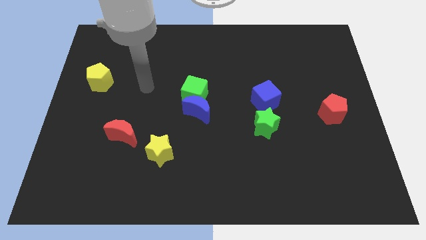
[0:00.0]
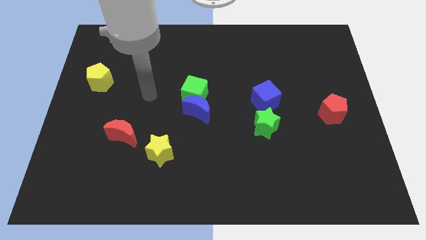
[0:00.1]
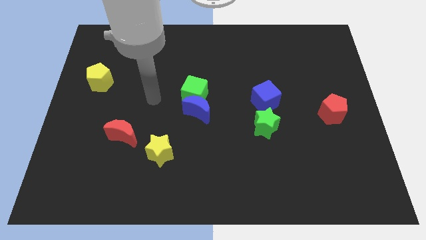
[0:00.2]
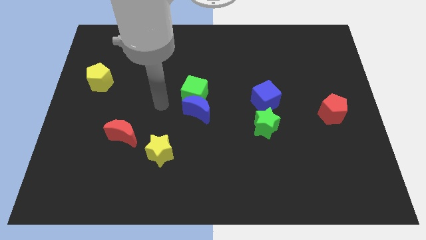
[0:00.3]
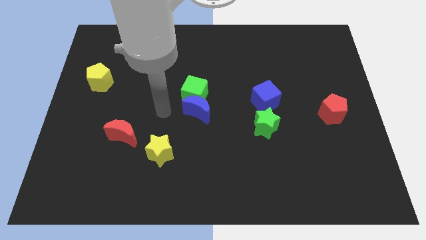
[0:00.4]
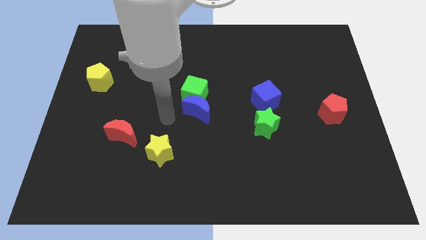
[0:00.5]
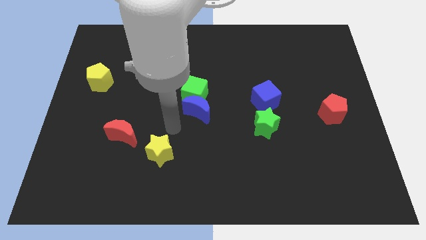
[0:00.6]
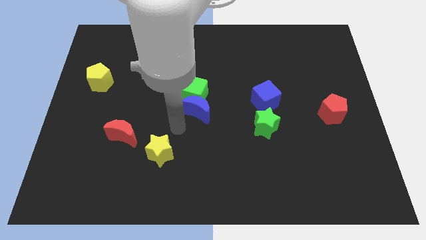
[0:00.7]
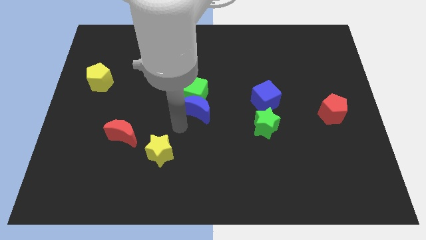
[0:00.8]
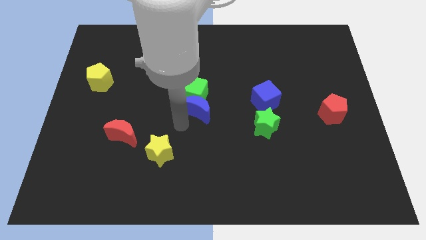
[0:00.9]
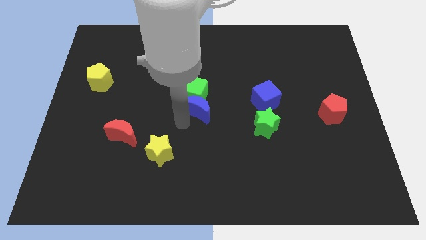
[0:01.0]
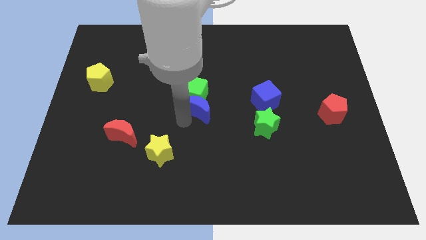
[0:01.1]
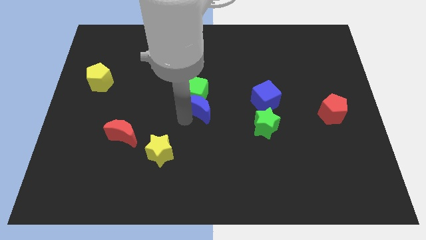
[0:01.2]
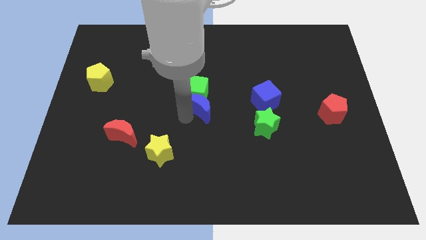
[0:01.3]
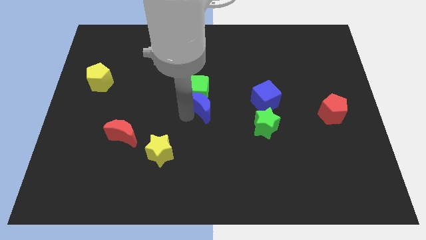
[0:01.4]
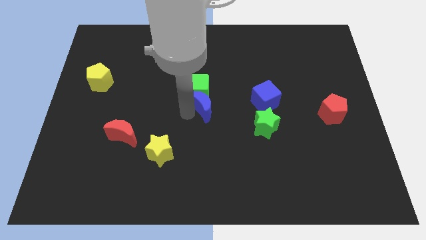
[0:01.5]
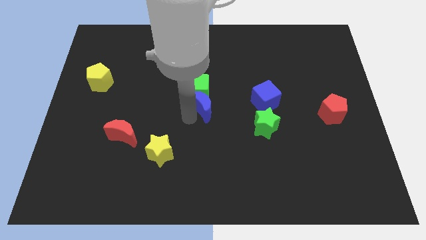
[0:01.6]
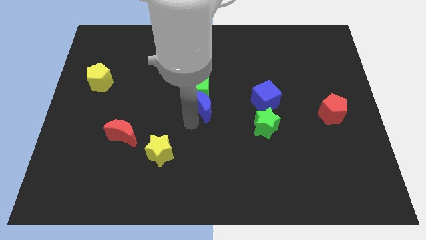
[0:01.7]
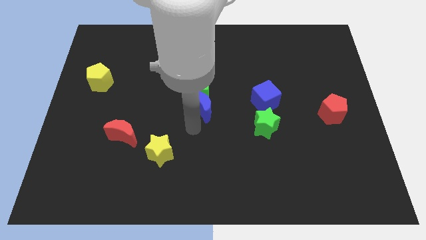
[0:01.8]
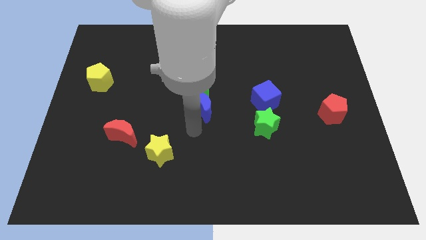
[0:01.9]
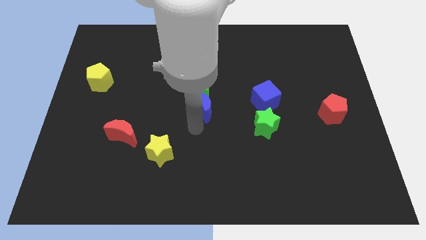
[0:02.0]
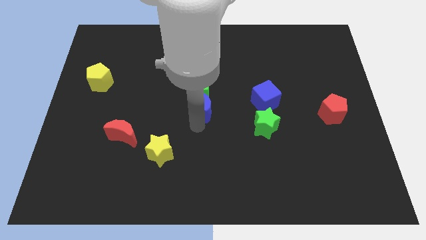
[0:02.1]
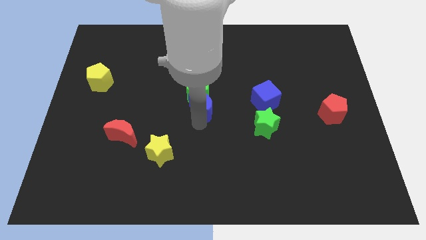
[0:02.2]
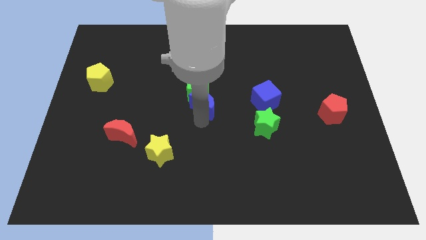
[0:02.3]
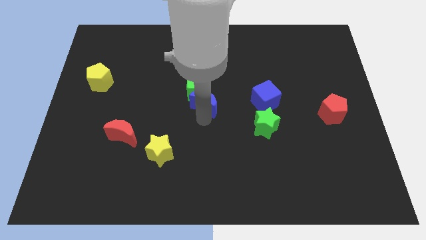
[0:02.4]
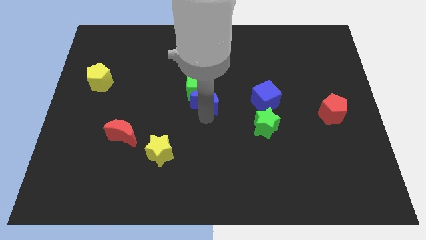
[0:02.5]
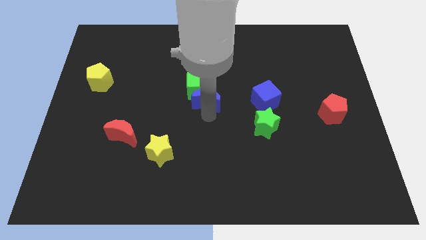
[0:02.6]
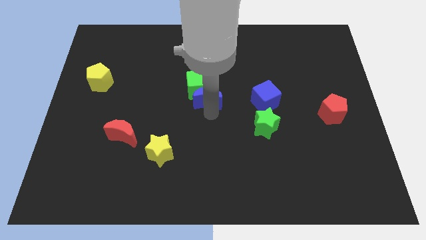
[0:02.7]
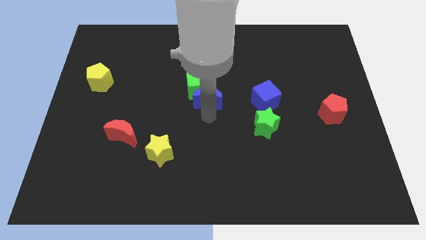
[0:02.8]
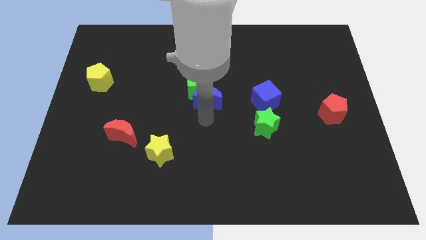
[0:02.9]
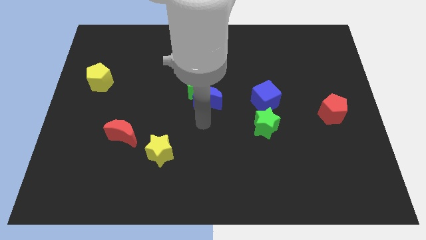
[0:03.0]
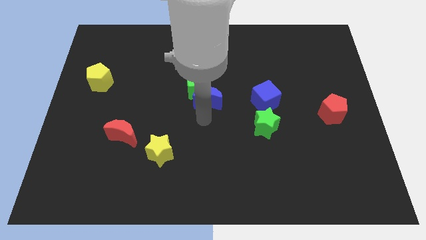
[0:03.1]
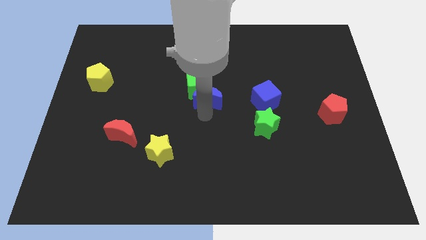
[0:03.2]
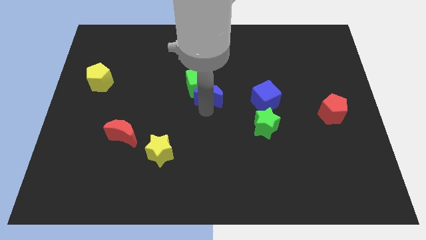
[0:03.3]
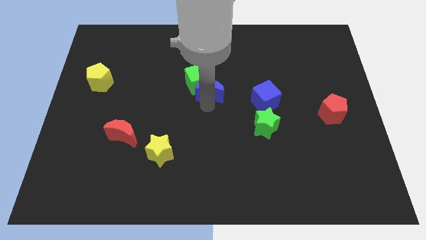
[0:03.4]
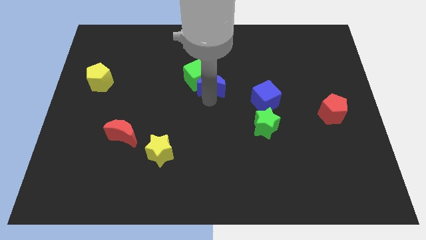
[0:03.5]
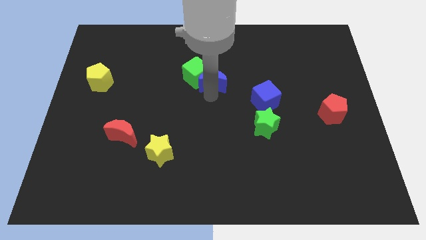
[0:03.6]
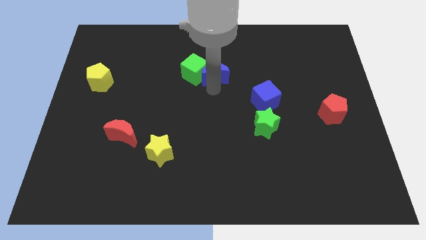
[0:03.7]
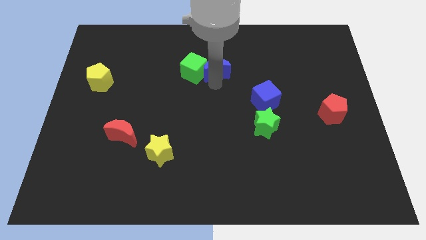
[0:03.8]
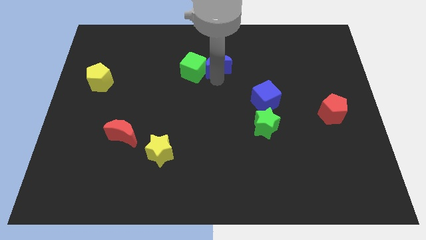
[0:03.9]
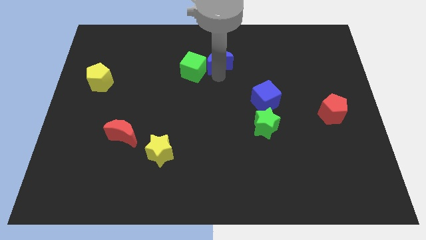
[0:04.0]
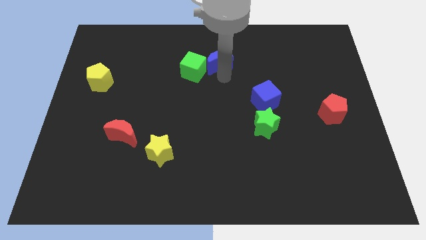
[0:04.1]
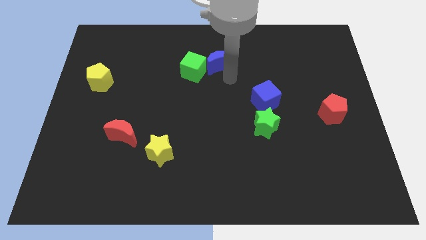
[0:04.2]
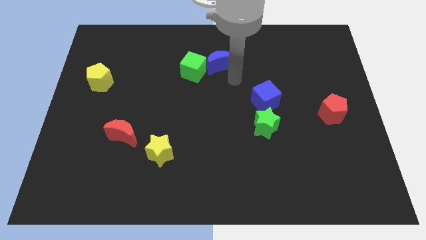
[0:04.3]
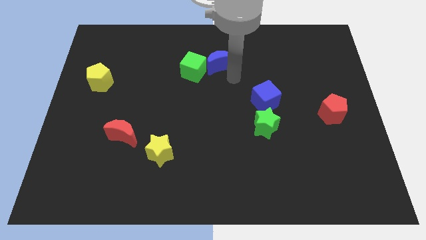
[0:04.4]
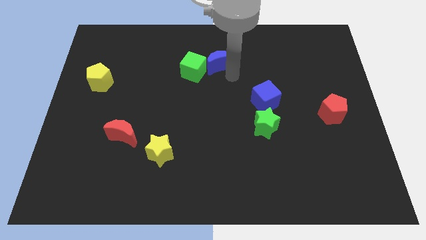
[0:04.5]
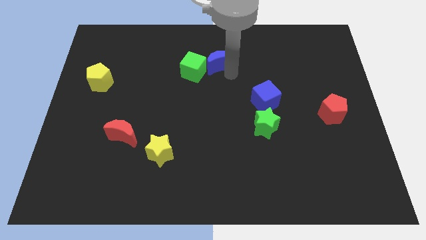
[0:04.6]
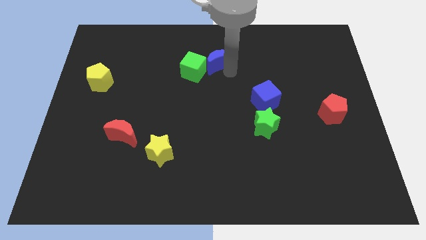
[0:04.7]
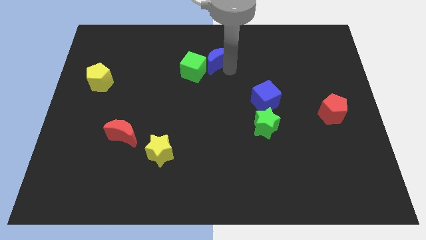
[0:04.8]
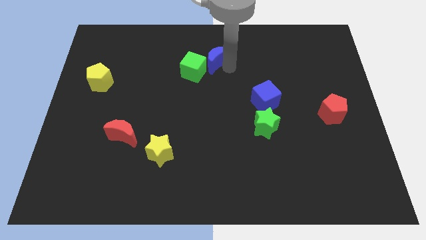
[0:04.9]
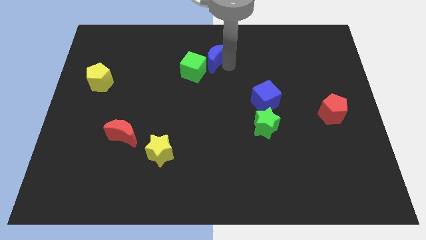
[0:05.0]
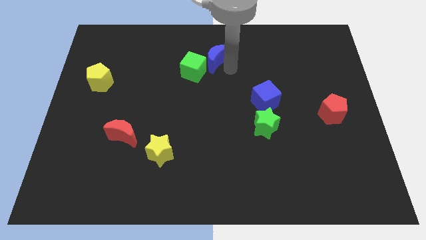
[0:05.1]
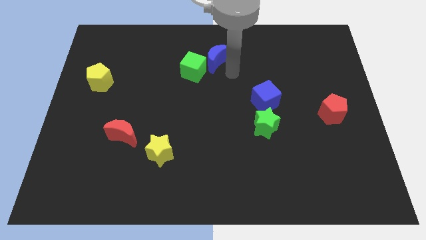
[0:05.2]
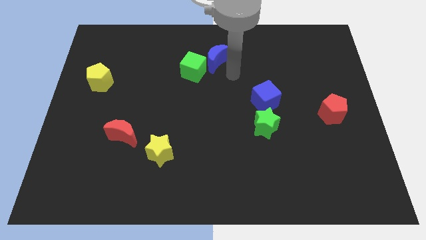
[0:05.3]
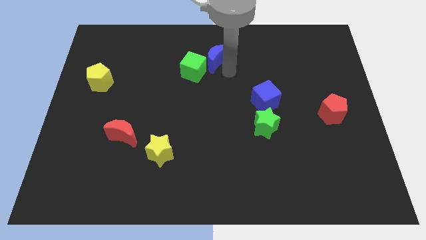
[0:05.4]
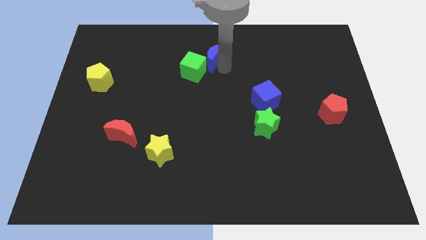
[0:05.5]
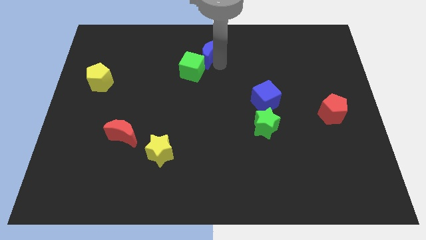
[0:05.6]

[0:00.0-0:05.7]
push the blue moon to the towards your base

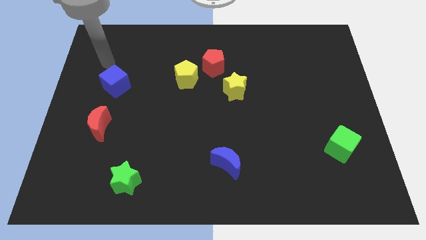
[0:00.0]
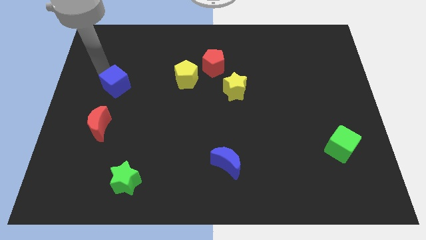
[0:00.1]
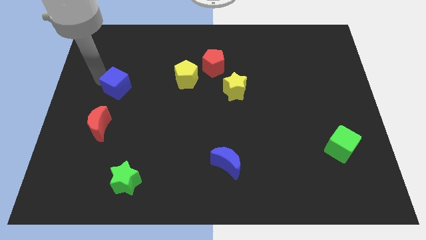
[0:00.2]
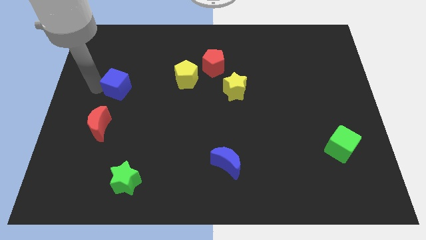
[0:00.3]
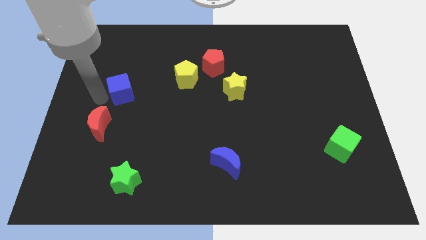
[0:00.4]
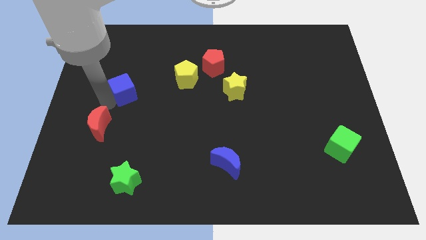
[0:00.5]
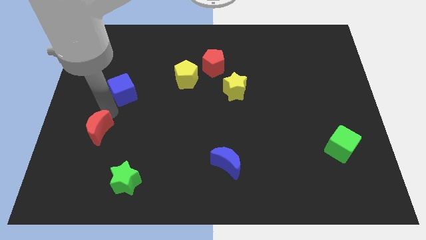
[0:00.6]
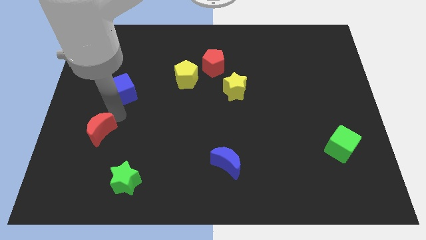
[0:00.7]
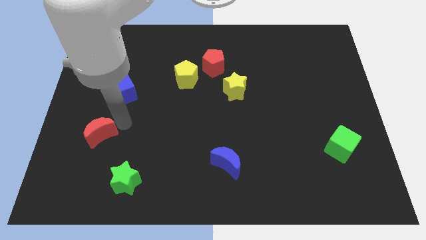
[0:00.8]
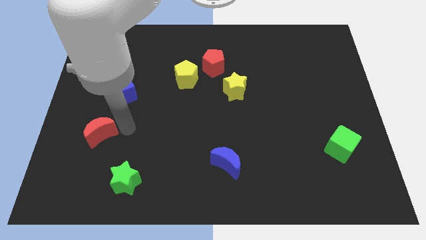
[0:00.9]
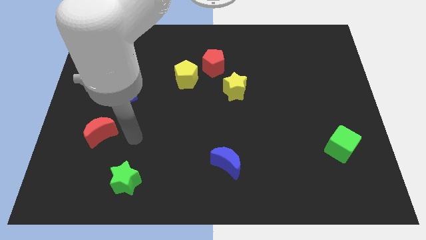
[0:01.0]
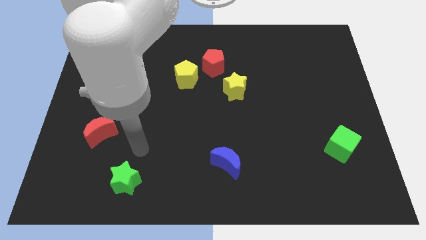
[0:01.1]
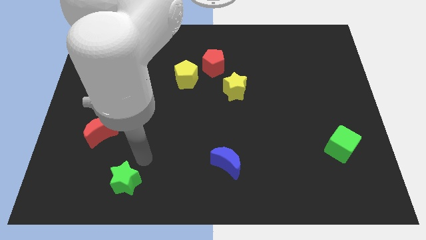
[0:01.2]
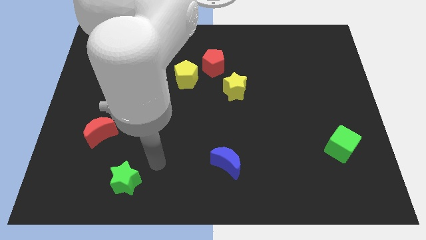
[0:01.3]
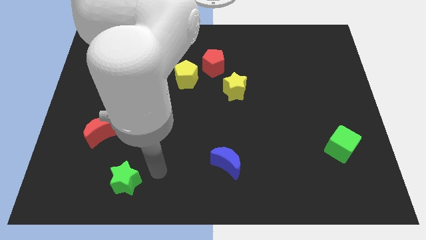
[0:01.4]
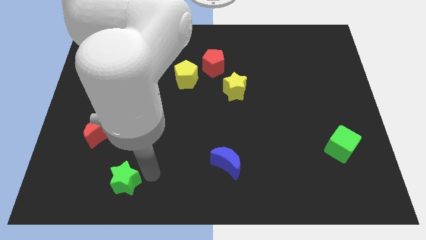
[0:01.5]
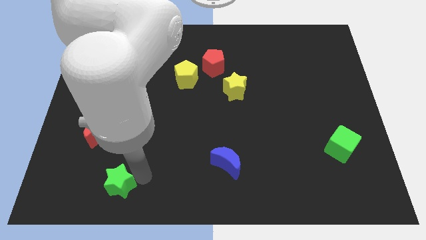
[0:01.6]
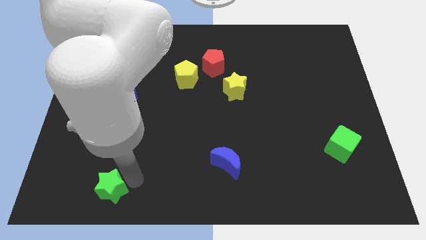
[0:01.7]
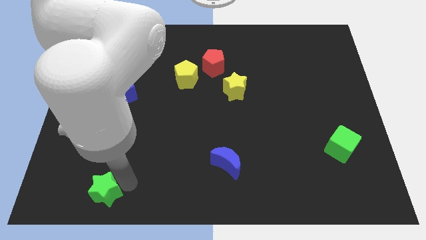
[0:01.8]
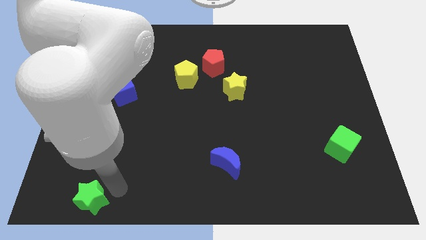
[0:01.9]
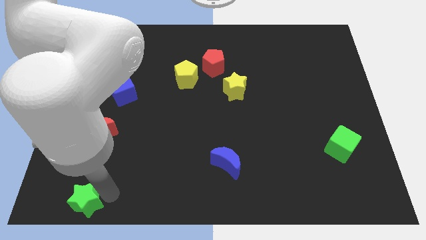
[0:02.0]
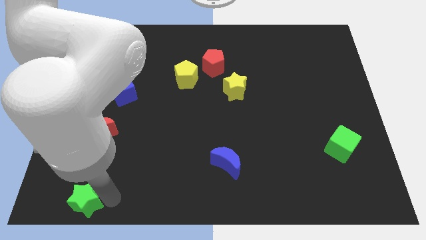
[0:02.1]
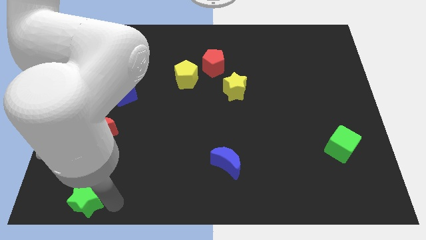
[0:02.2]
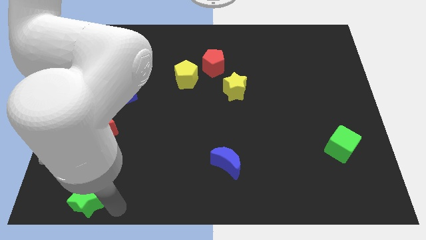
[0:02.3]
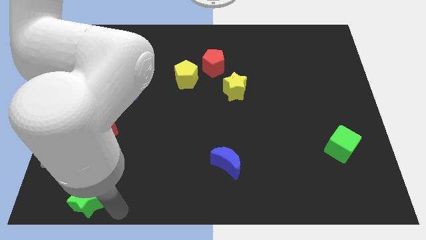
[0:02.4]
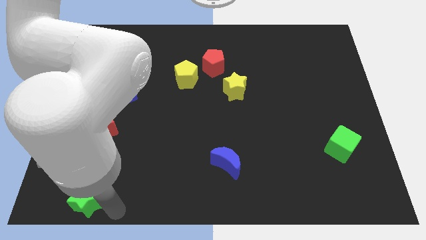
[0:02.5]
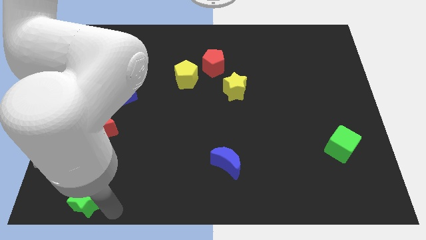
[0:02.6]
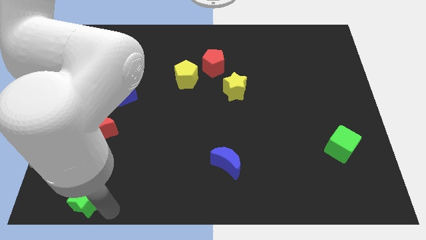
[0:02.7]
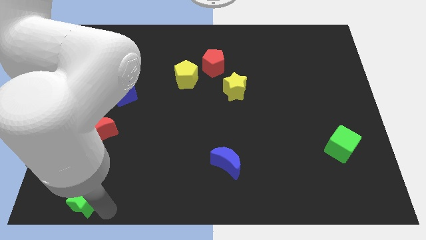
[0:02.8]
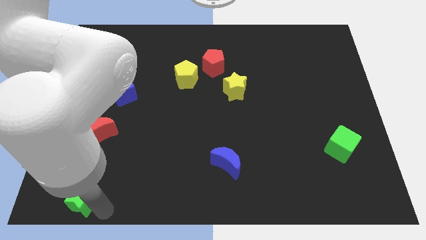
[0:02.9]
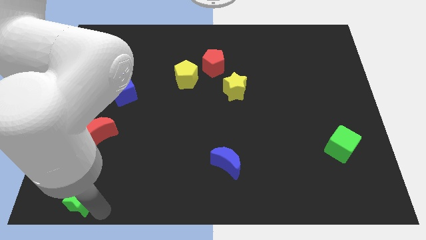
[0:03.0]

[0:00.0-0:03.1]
put the green star to the lower left corner
